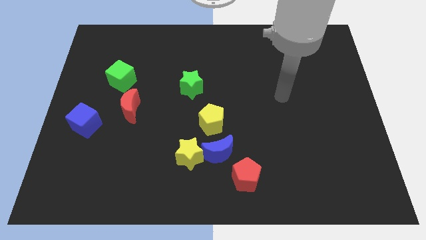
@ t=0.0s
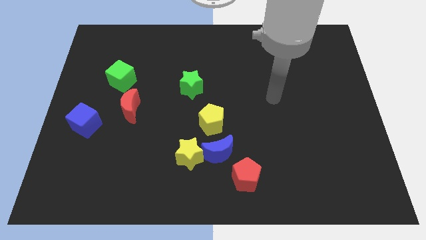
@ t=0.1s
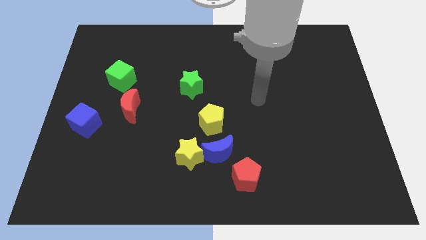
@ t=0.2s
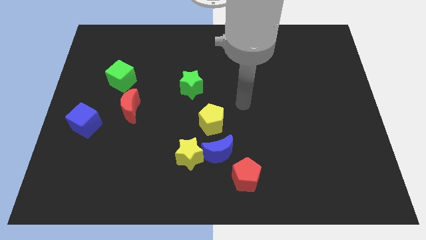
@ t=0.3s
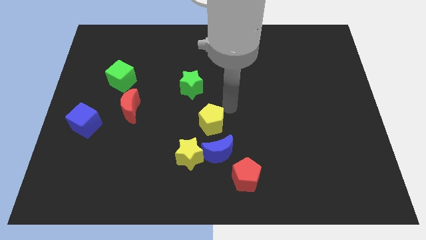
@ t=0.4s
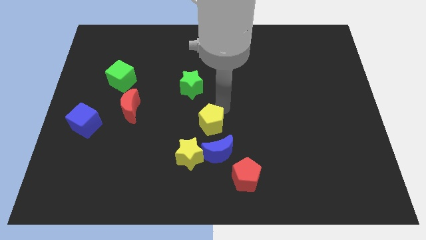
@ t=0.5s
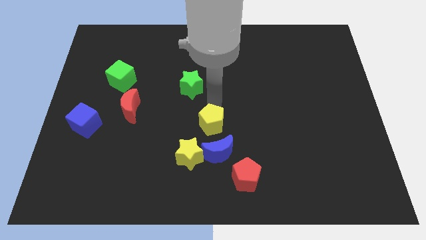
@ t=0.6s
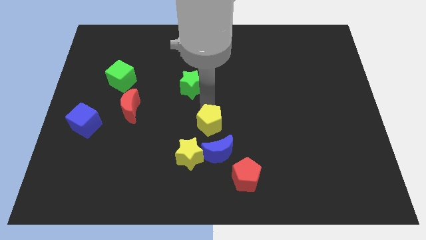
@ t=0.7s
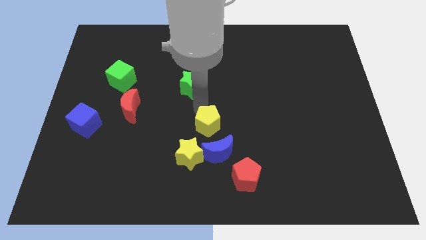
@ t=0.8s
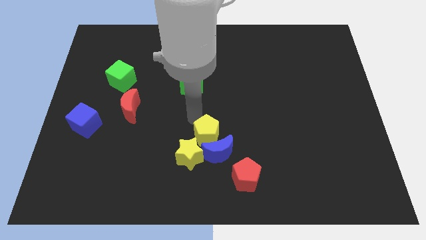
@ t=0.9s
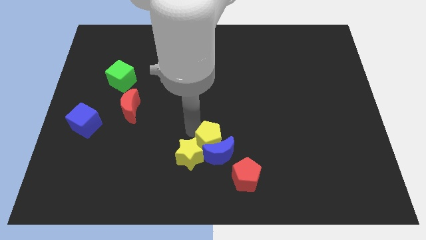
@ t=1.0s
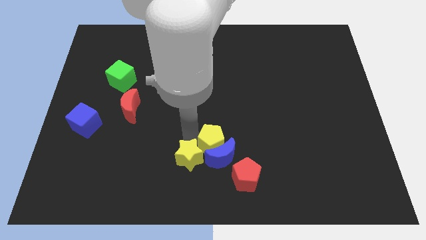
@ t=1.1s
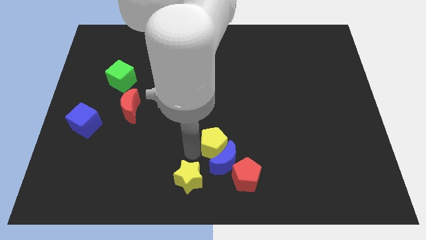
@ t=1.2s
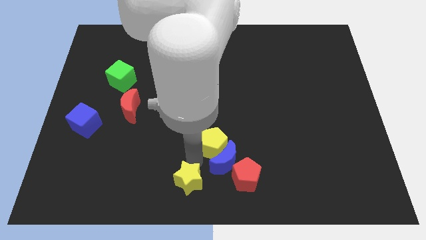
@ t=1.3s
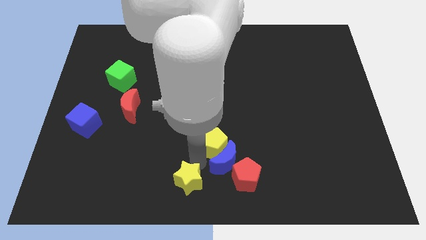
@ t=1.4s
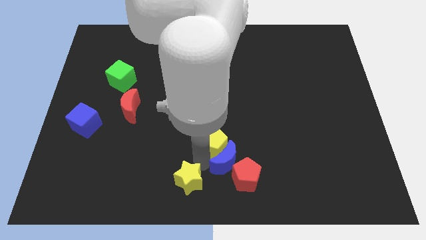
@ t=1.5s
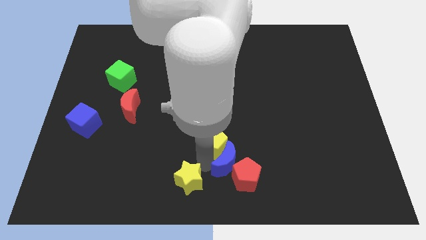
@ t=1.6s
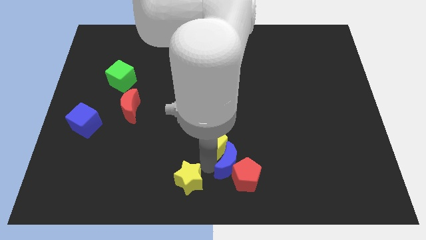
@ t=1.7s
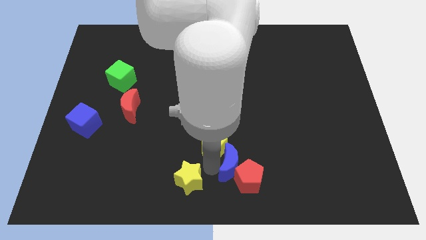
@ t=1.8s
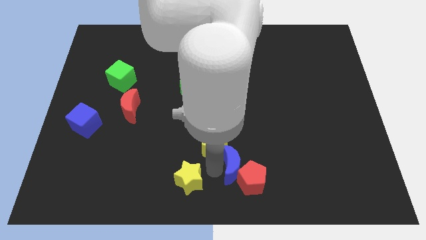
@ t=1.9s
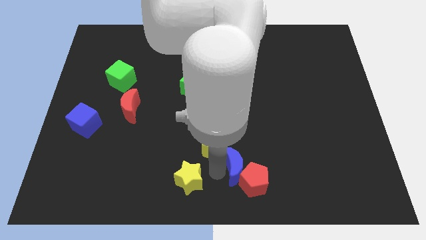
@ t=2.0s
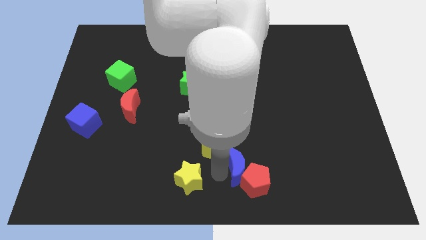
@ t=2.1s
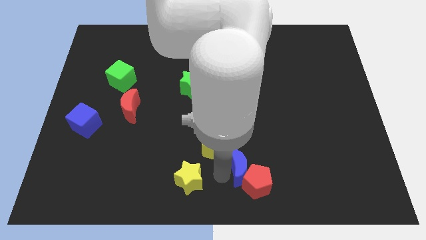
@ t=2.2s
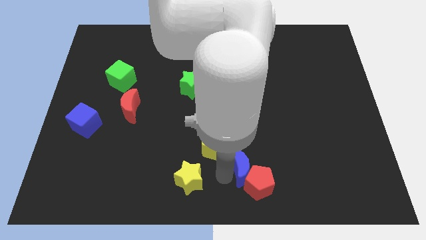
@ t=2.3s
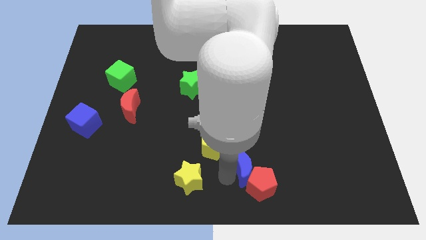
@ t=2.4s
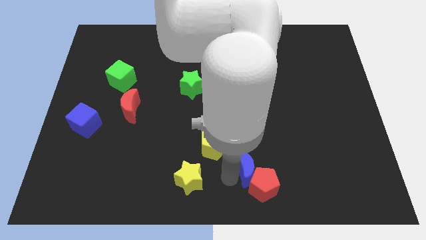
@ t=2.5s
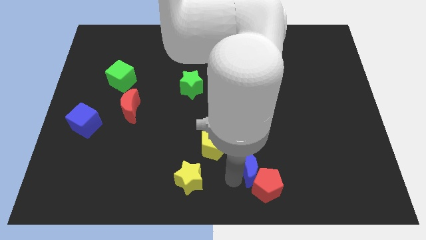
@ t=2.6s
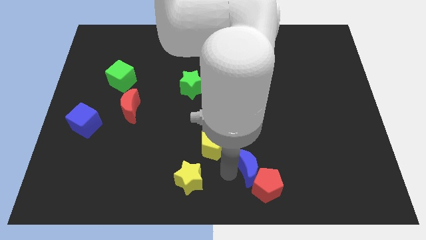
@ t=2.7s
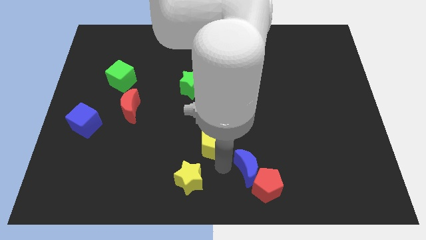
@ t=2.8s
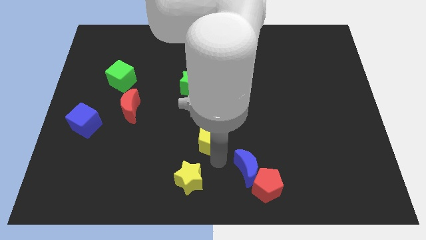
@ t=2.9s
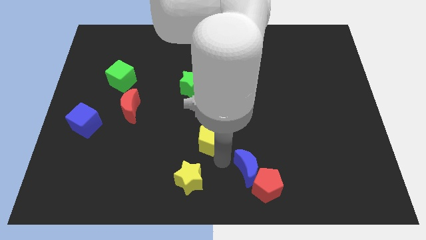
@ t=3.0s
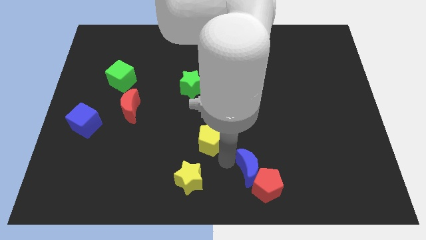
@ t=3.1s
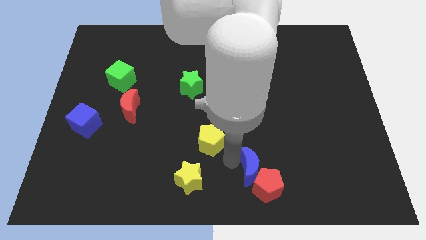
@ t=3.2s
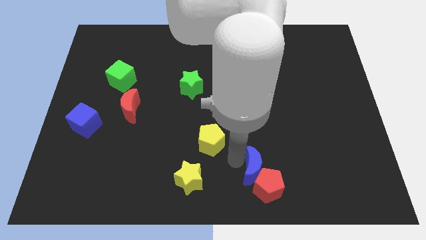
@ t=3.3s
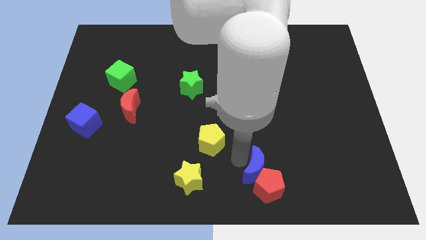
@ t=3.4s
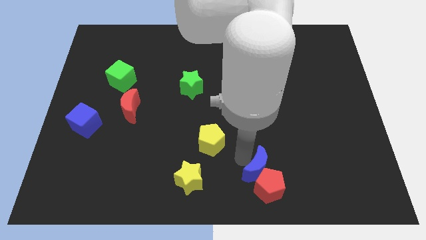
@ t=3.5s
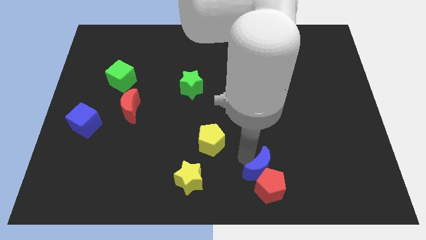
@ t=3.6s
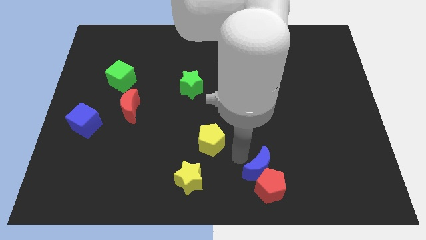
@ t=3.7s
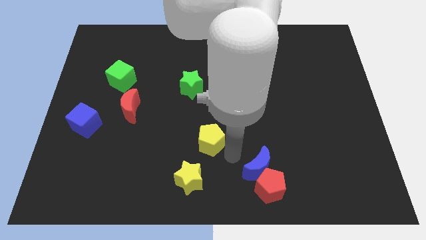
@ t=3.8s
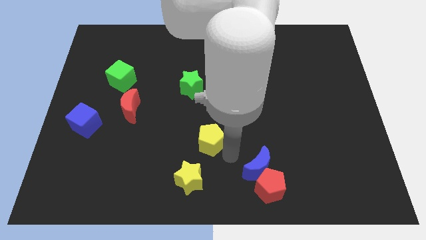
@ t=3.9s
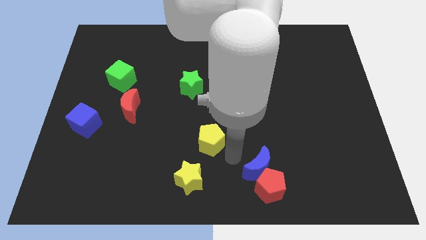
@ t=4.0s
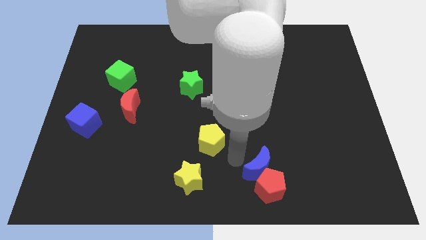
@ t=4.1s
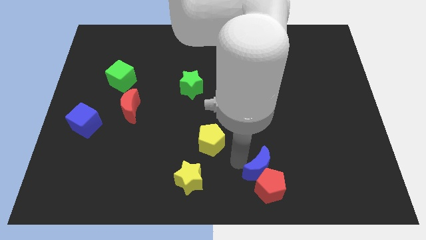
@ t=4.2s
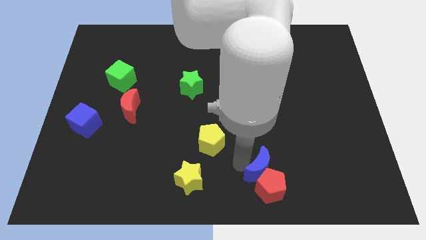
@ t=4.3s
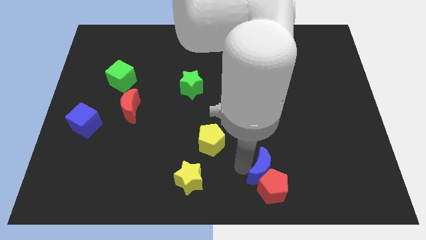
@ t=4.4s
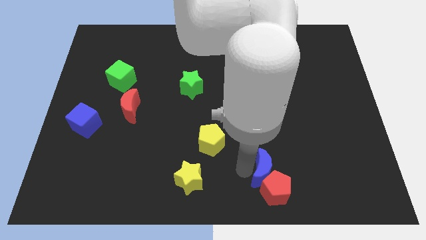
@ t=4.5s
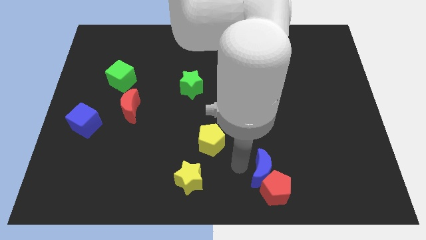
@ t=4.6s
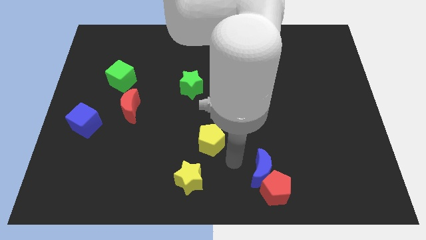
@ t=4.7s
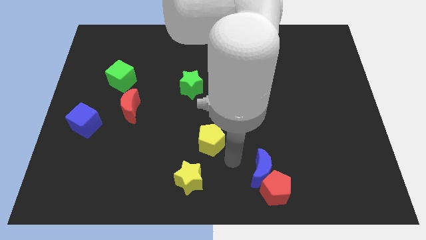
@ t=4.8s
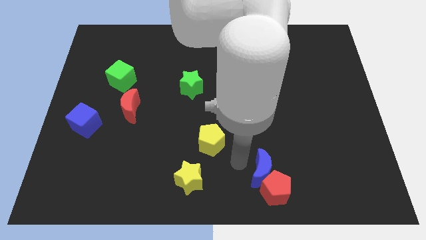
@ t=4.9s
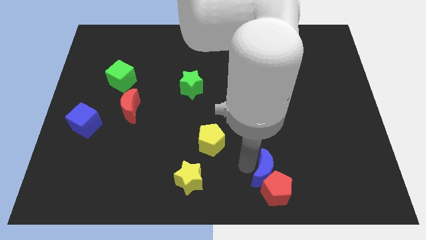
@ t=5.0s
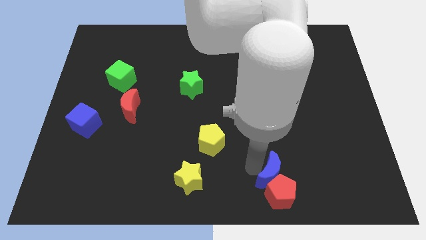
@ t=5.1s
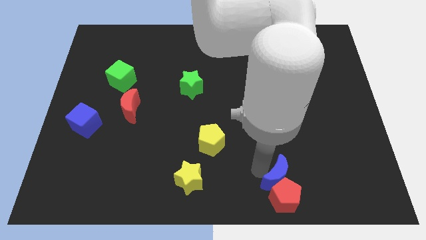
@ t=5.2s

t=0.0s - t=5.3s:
pull the blue moon apart from the yellow star, red pentagon, and yellow pentagon

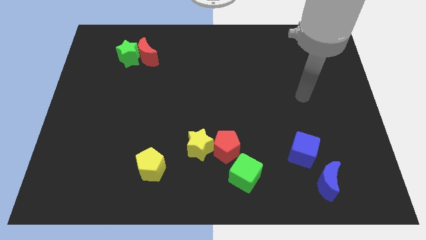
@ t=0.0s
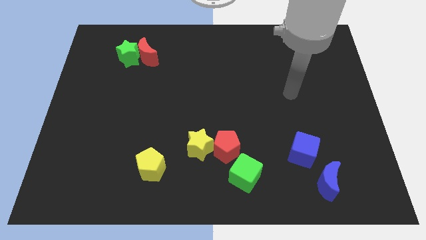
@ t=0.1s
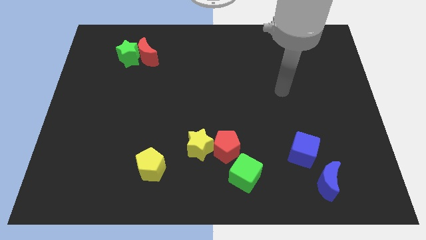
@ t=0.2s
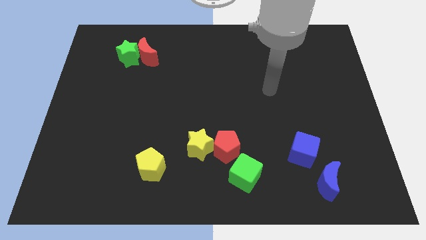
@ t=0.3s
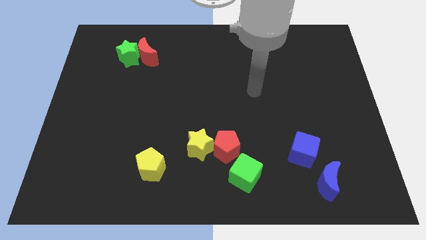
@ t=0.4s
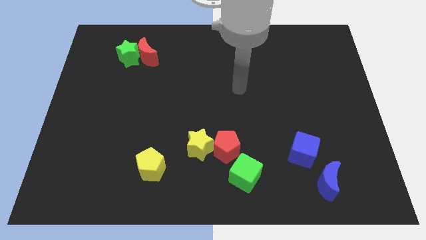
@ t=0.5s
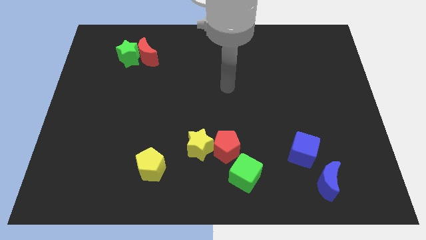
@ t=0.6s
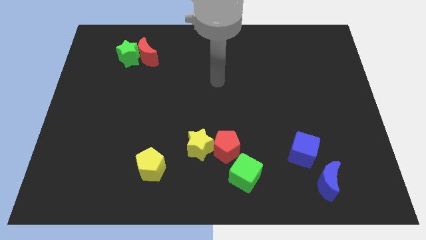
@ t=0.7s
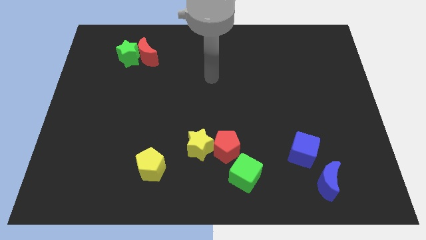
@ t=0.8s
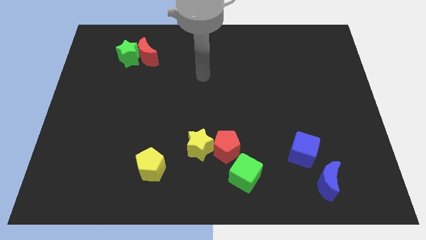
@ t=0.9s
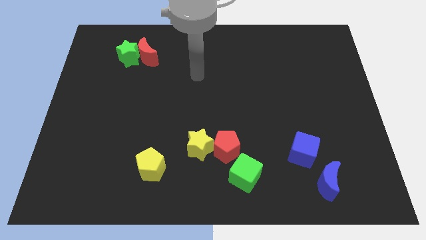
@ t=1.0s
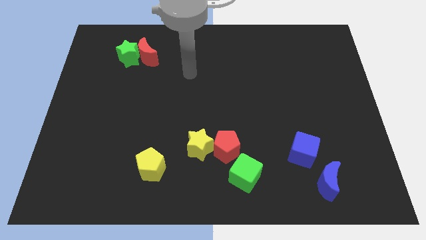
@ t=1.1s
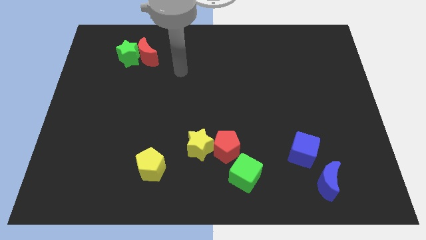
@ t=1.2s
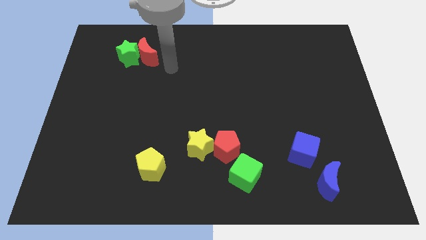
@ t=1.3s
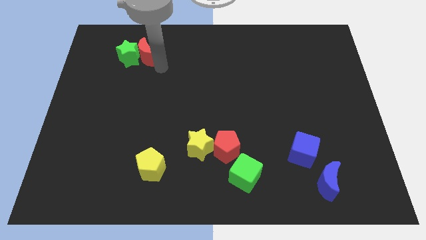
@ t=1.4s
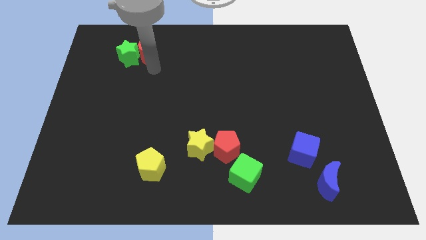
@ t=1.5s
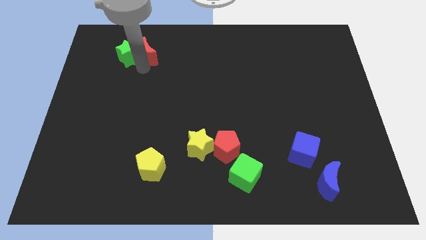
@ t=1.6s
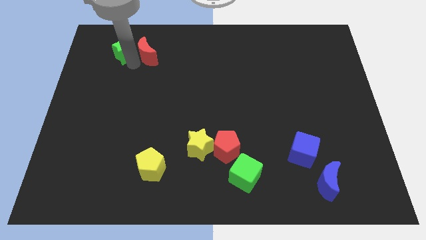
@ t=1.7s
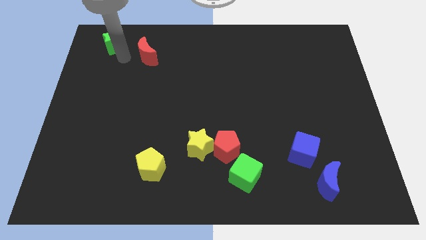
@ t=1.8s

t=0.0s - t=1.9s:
separate the red moon from the green star

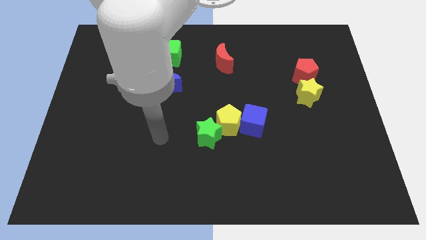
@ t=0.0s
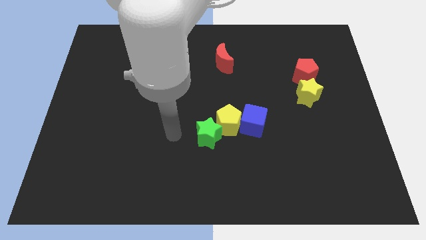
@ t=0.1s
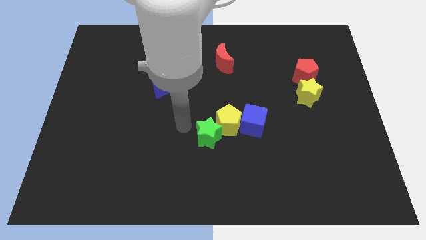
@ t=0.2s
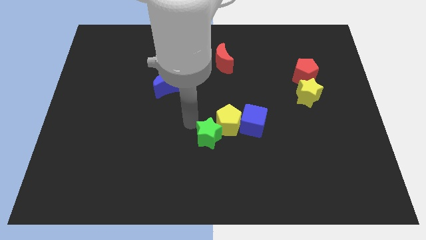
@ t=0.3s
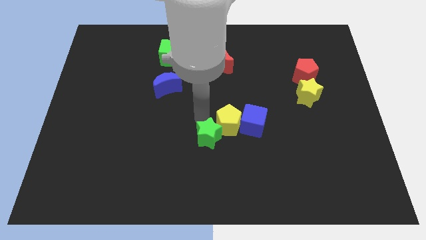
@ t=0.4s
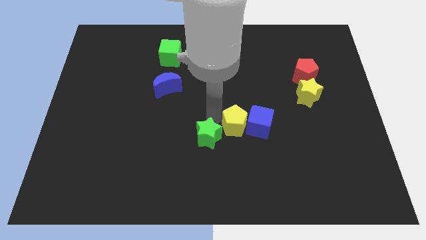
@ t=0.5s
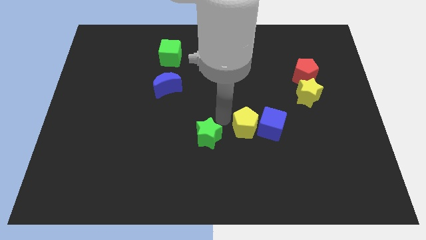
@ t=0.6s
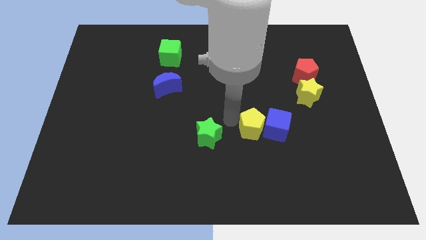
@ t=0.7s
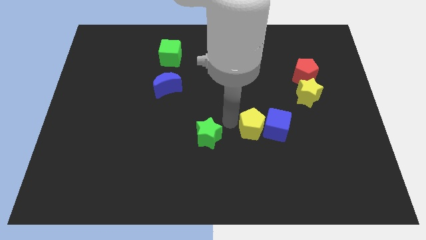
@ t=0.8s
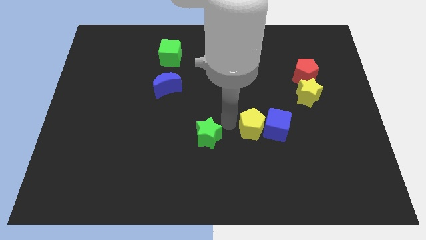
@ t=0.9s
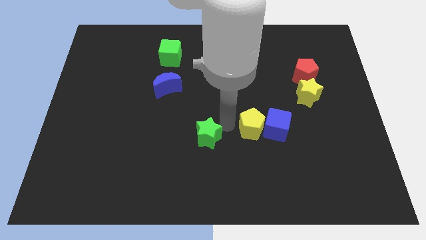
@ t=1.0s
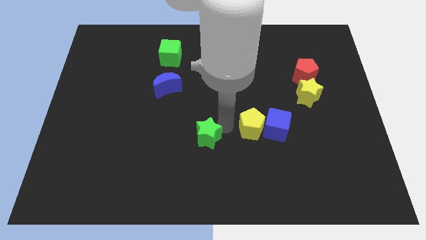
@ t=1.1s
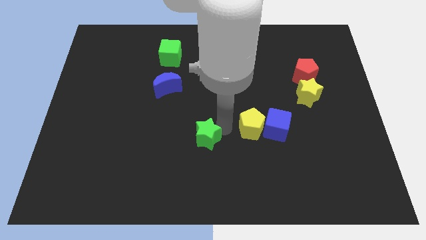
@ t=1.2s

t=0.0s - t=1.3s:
move the green star away from the yellow pentagon

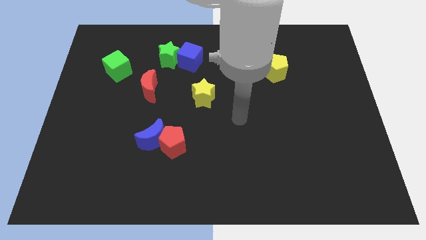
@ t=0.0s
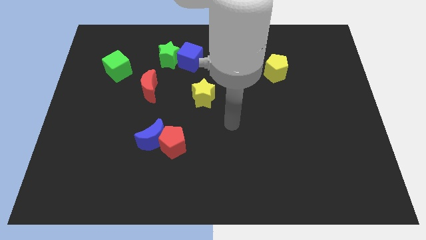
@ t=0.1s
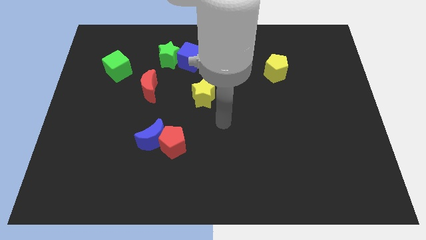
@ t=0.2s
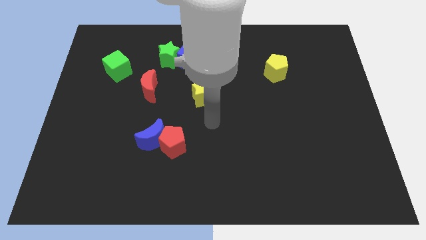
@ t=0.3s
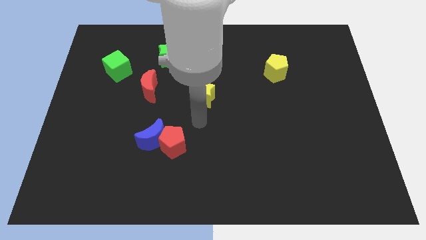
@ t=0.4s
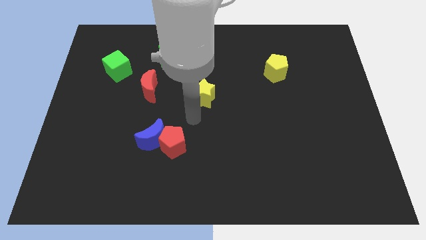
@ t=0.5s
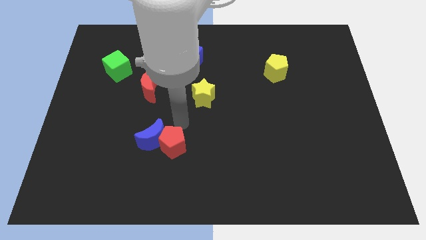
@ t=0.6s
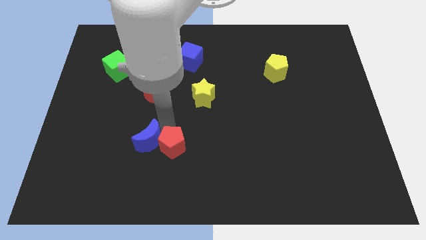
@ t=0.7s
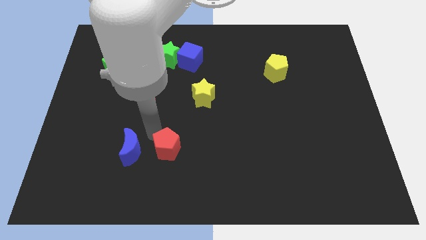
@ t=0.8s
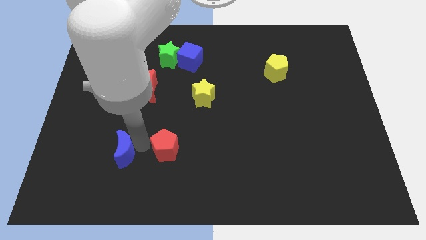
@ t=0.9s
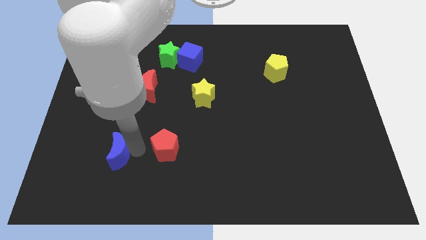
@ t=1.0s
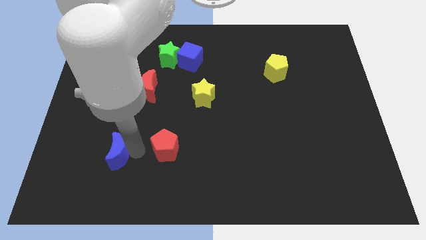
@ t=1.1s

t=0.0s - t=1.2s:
move the red pentagon away from the blue moon
